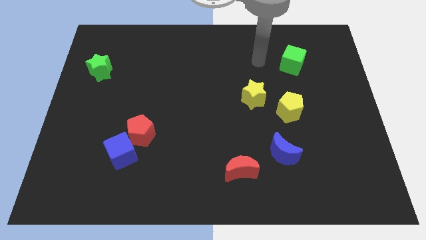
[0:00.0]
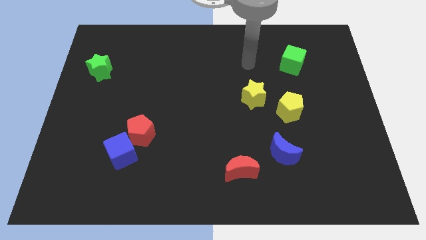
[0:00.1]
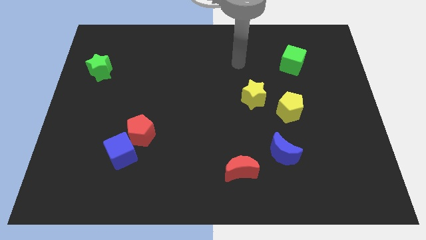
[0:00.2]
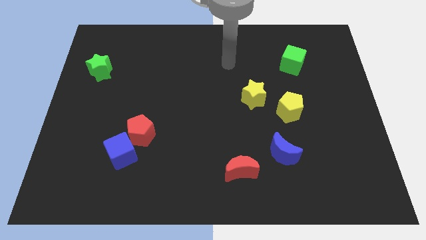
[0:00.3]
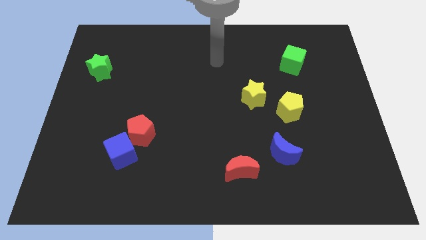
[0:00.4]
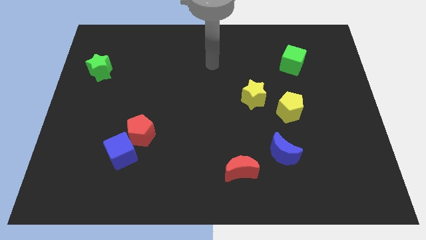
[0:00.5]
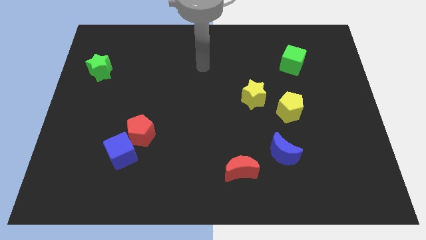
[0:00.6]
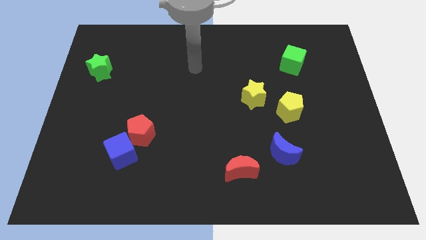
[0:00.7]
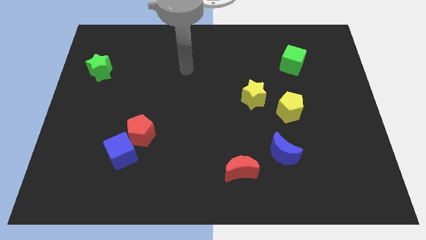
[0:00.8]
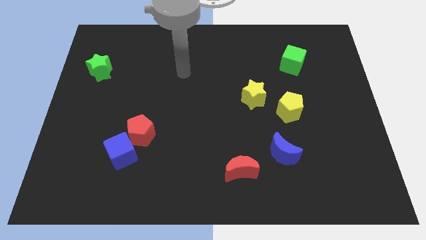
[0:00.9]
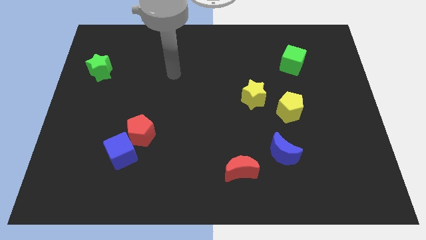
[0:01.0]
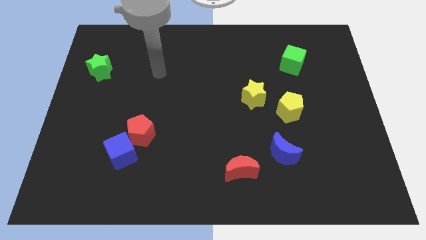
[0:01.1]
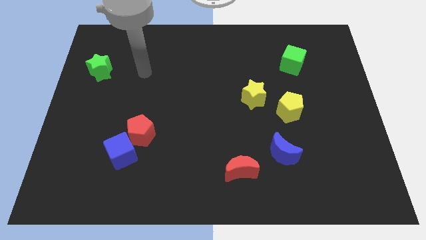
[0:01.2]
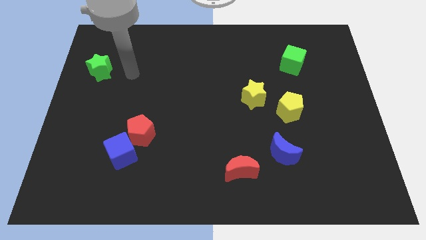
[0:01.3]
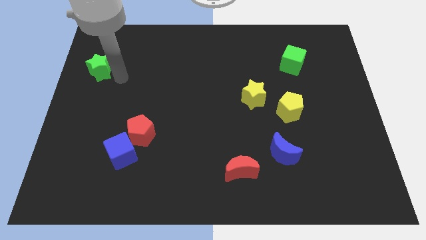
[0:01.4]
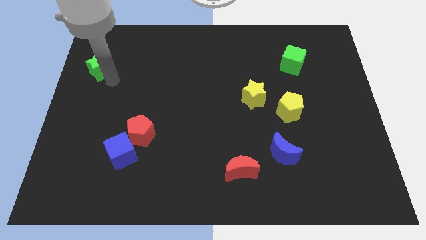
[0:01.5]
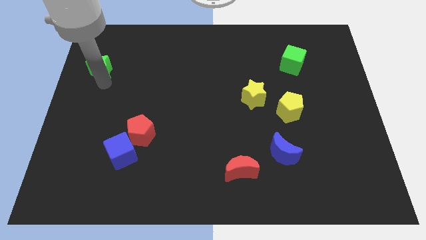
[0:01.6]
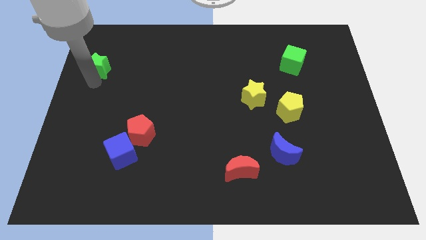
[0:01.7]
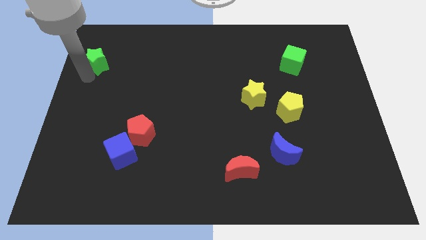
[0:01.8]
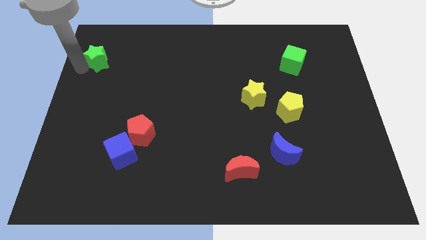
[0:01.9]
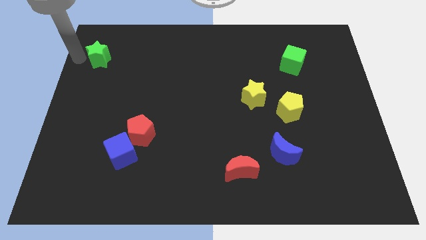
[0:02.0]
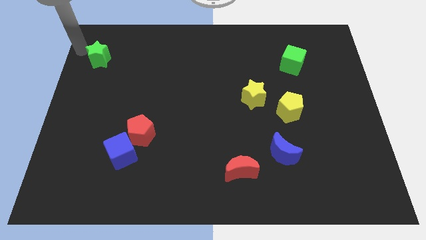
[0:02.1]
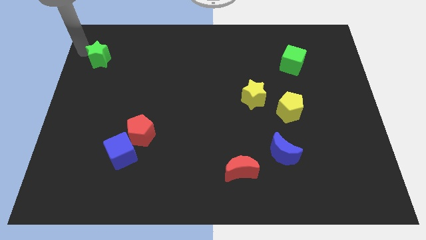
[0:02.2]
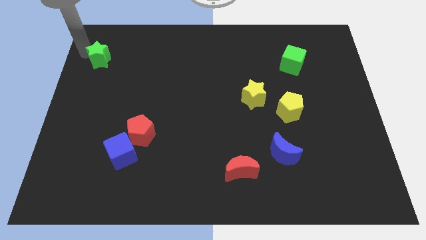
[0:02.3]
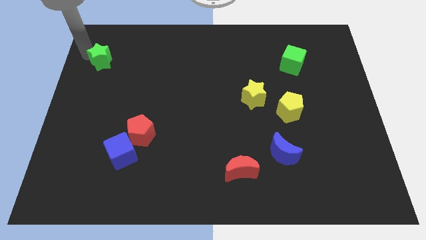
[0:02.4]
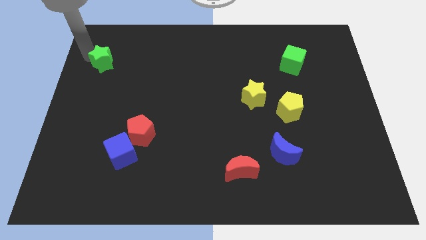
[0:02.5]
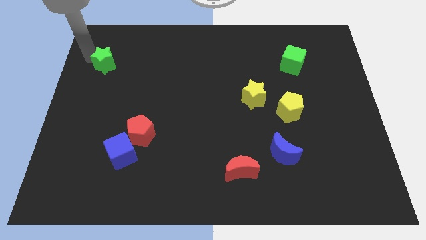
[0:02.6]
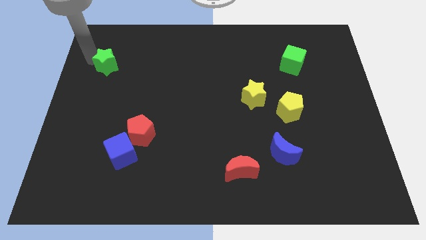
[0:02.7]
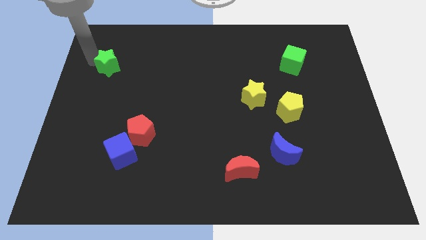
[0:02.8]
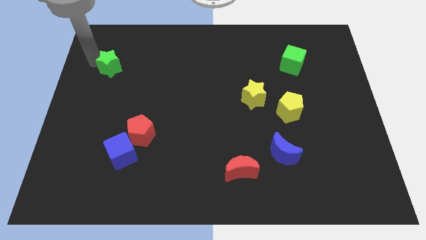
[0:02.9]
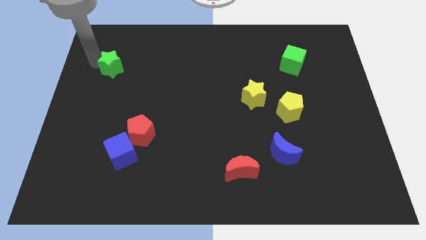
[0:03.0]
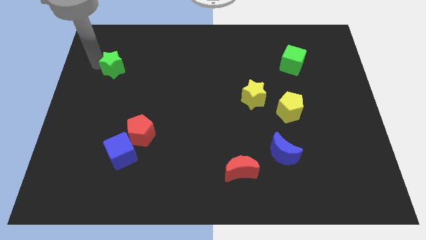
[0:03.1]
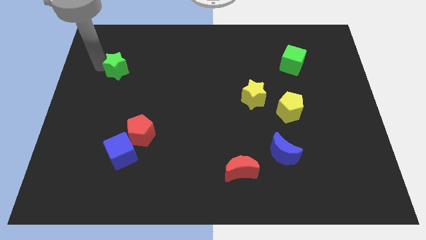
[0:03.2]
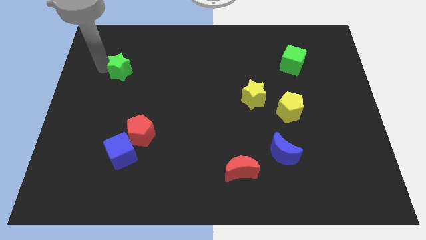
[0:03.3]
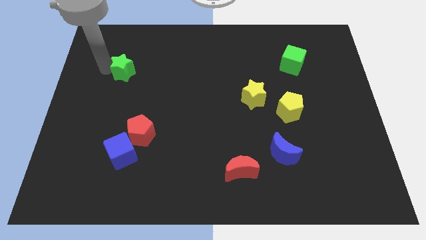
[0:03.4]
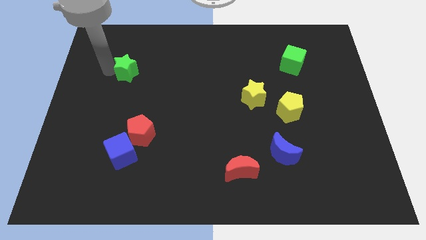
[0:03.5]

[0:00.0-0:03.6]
slightly push the green star right

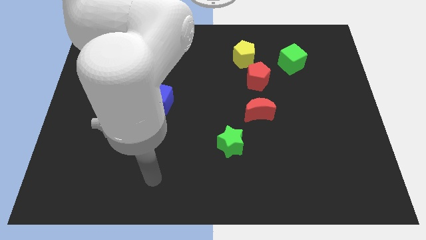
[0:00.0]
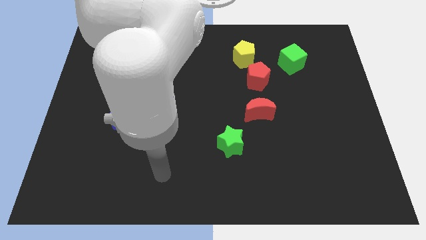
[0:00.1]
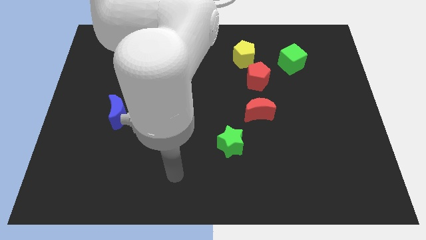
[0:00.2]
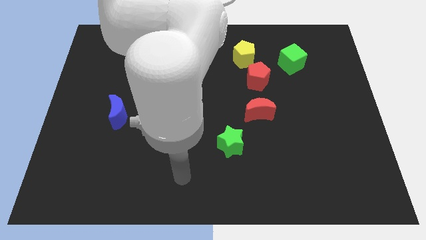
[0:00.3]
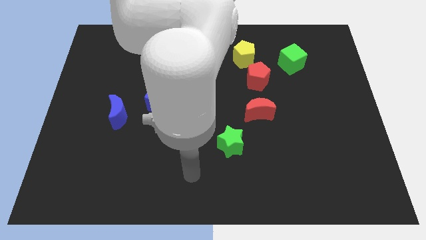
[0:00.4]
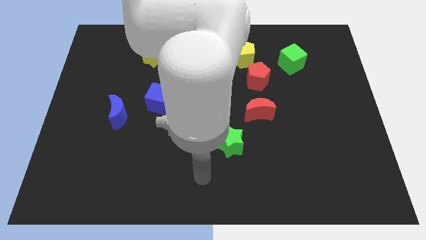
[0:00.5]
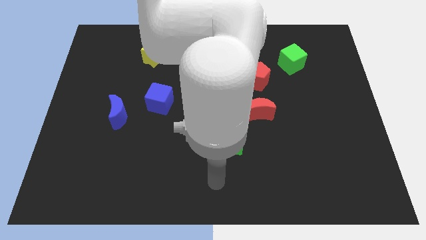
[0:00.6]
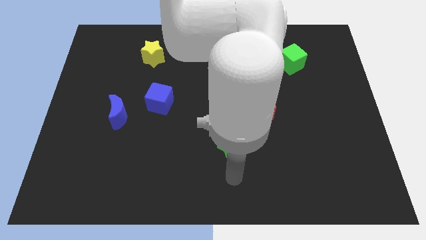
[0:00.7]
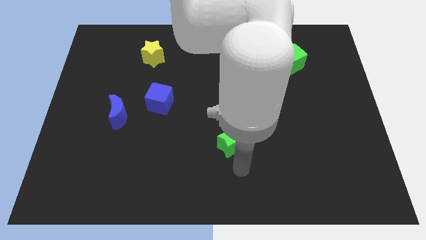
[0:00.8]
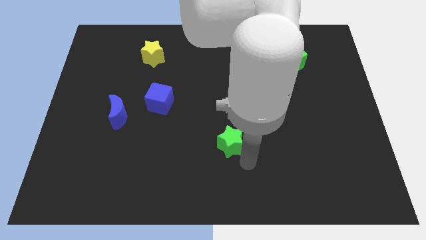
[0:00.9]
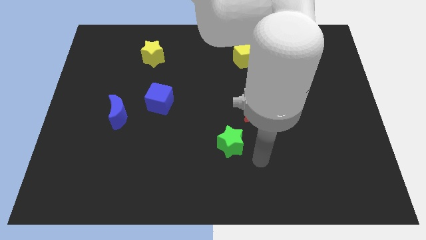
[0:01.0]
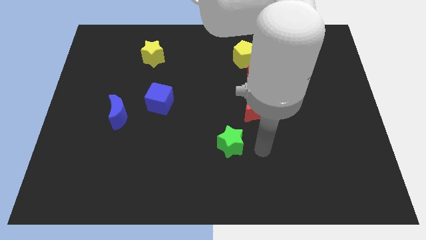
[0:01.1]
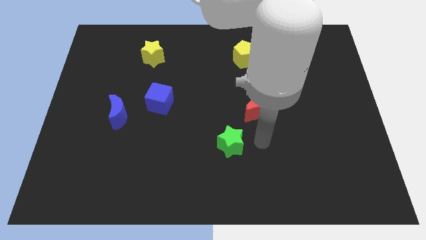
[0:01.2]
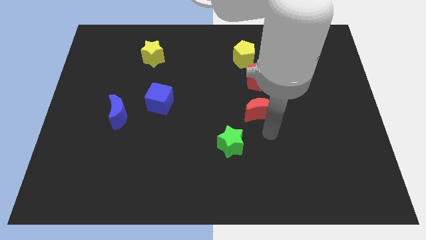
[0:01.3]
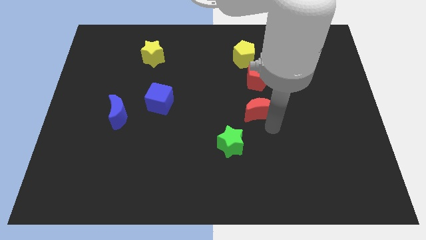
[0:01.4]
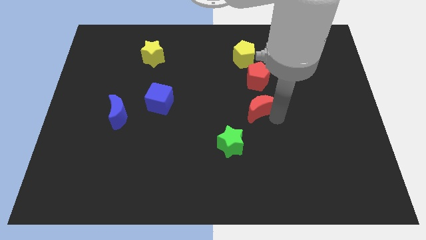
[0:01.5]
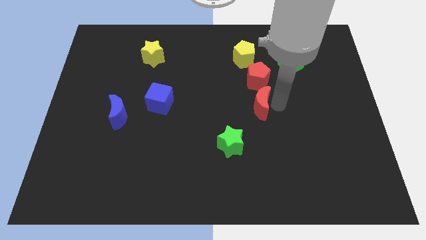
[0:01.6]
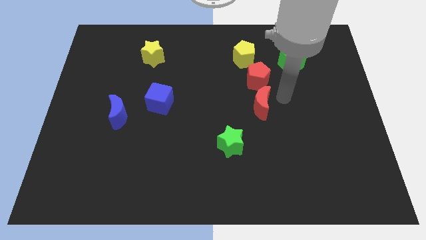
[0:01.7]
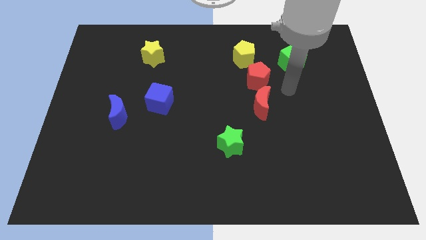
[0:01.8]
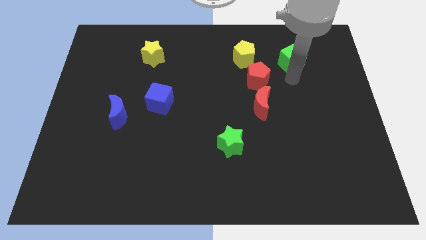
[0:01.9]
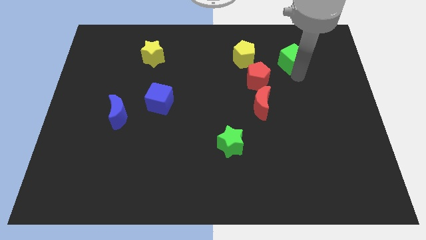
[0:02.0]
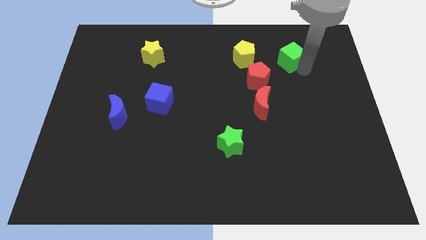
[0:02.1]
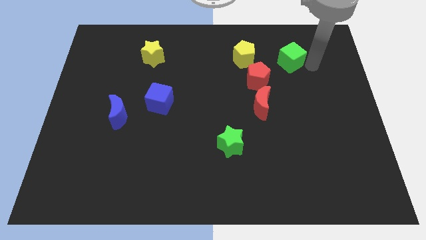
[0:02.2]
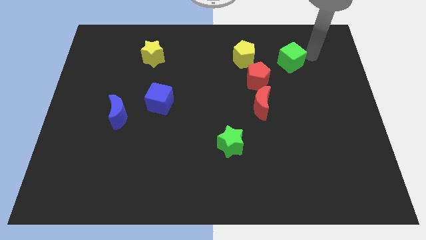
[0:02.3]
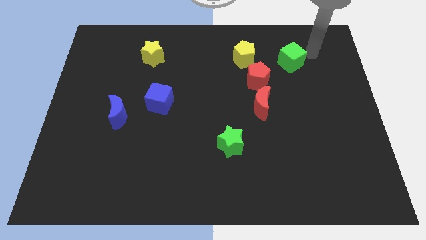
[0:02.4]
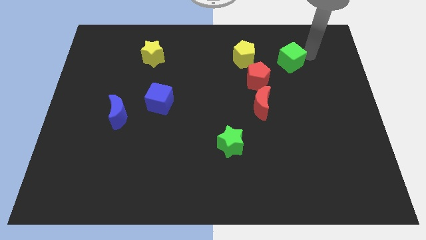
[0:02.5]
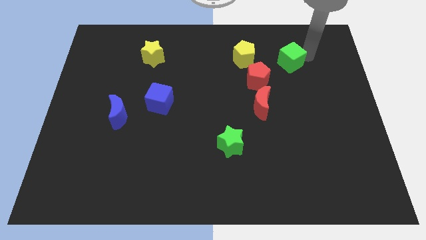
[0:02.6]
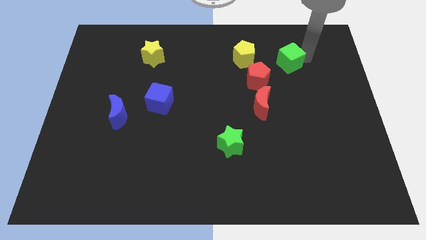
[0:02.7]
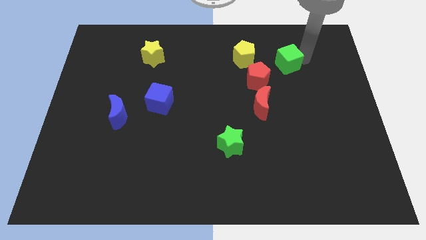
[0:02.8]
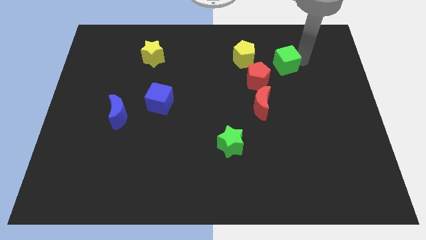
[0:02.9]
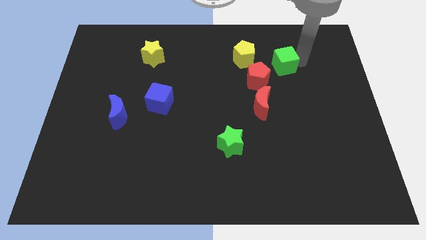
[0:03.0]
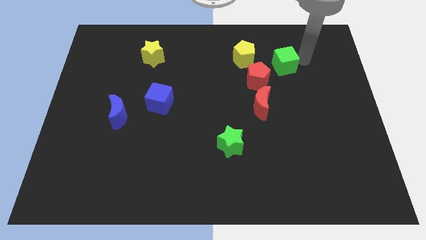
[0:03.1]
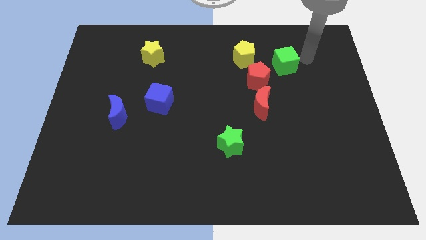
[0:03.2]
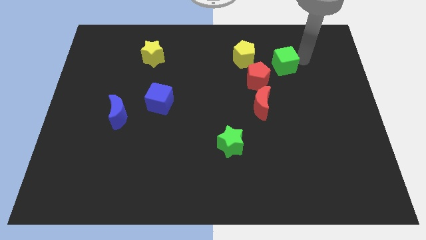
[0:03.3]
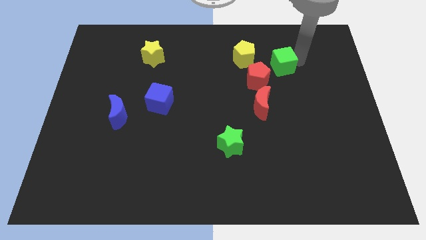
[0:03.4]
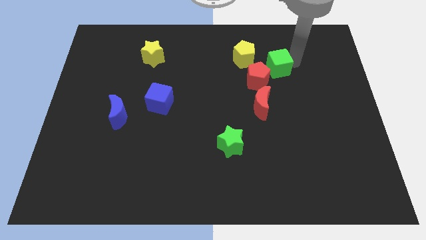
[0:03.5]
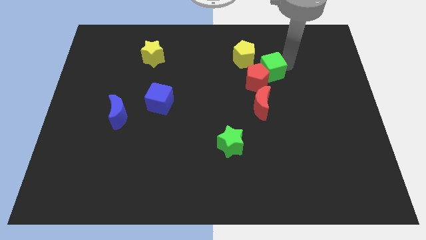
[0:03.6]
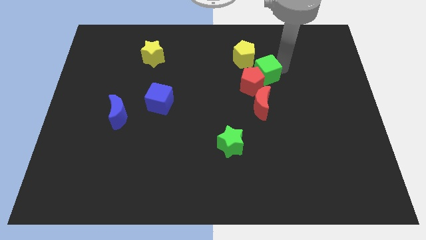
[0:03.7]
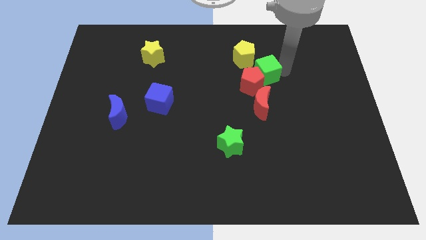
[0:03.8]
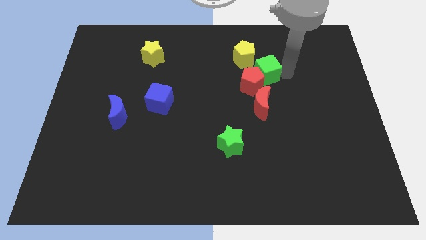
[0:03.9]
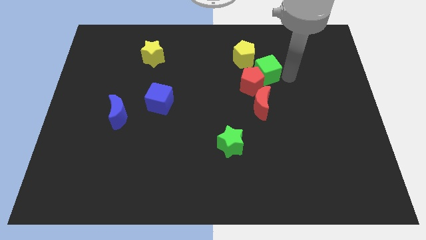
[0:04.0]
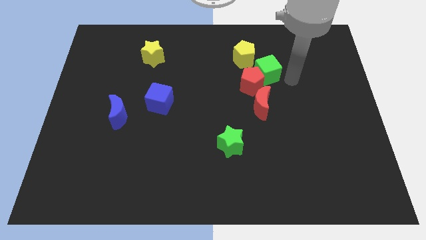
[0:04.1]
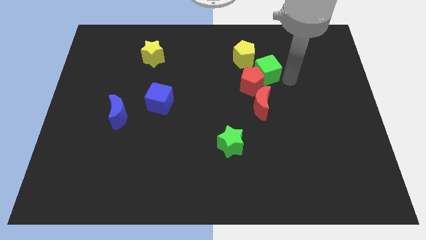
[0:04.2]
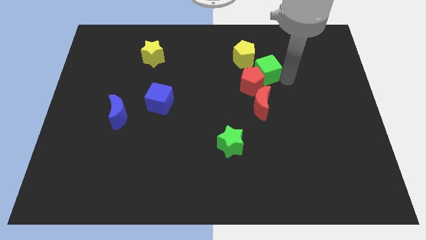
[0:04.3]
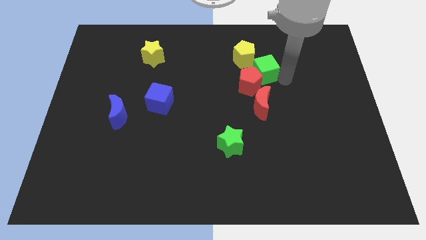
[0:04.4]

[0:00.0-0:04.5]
slightly slide the green cube to the left
